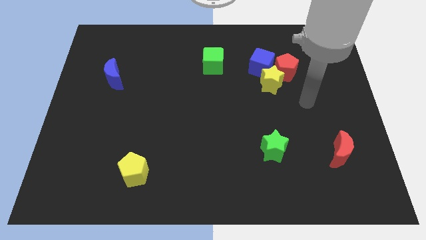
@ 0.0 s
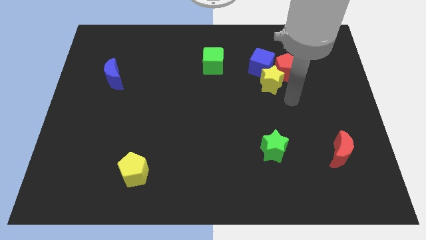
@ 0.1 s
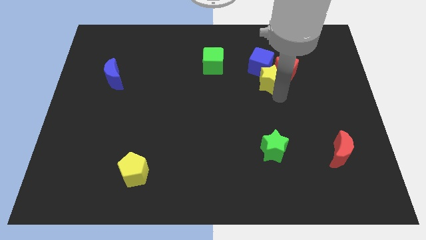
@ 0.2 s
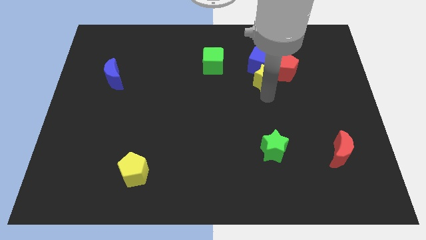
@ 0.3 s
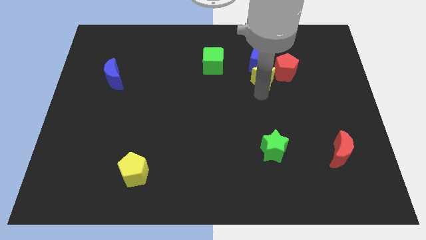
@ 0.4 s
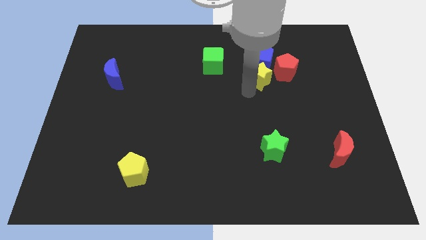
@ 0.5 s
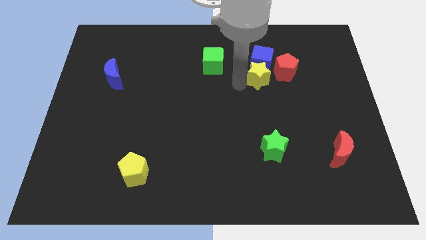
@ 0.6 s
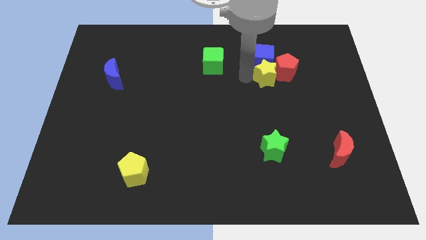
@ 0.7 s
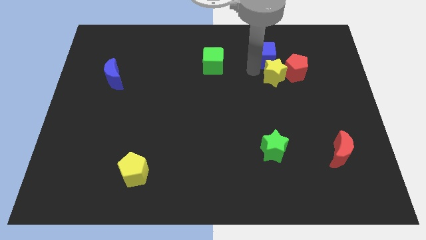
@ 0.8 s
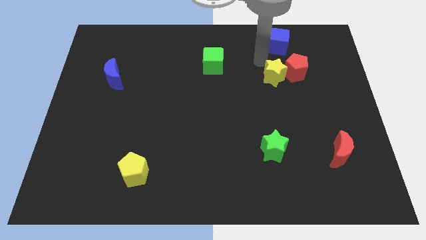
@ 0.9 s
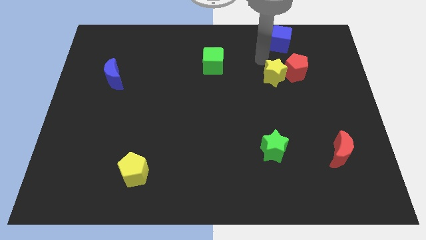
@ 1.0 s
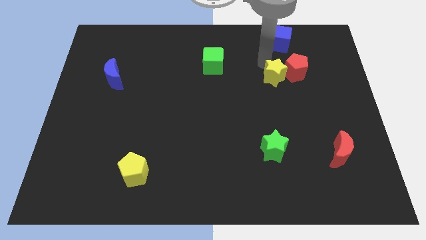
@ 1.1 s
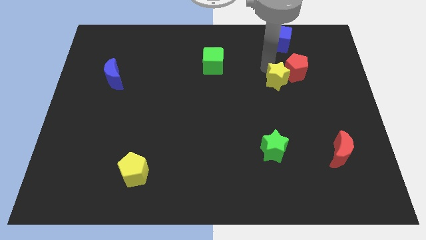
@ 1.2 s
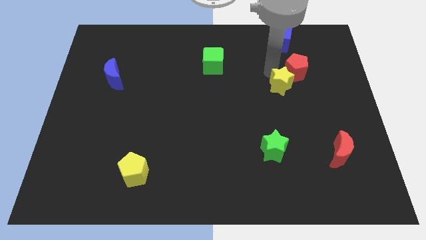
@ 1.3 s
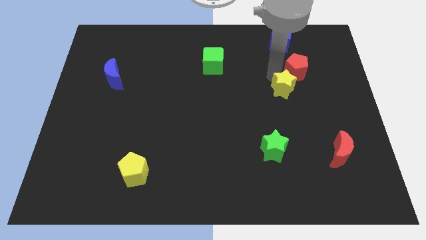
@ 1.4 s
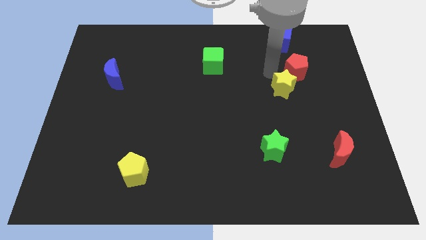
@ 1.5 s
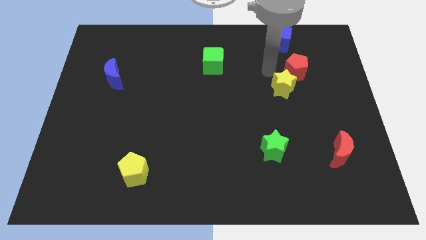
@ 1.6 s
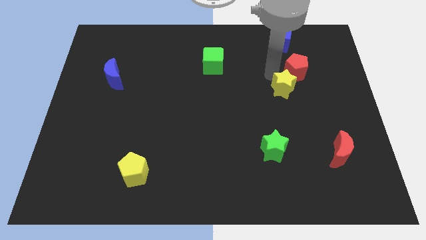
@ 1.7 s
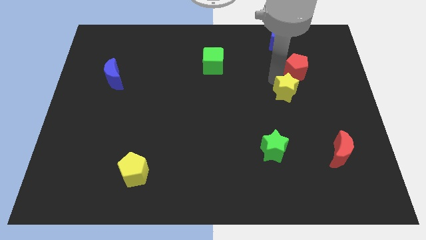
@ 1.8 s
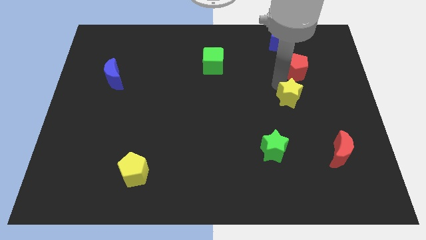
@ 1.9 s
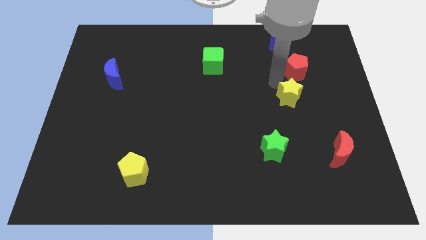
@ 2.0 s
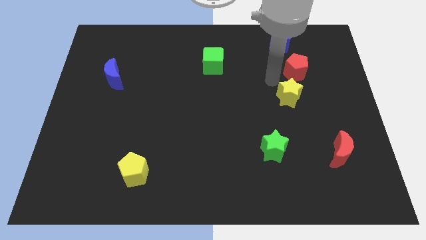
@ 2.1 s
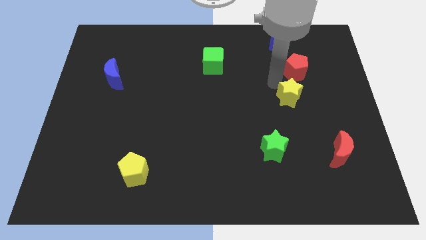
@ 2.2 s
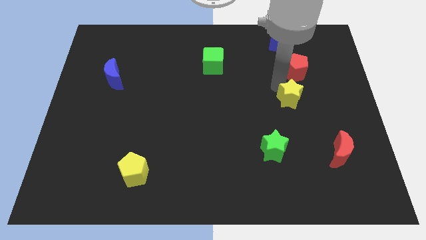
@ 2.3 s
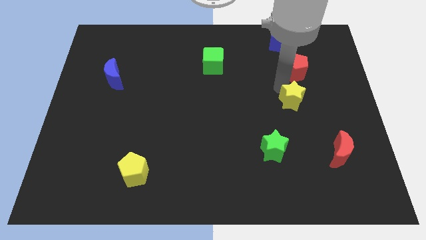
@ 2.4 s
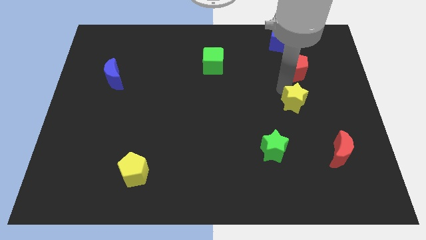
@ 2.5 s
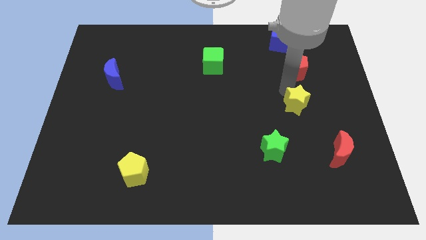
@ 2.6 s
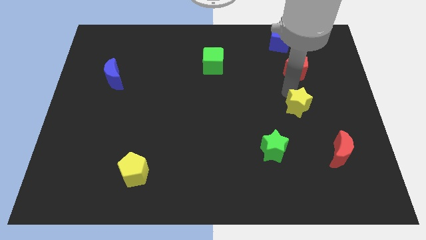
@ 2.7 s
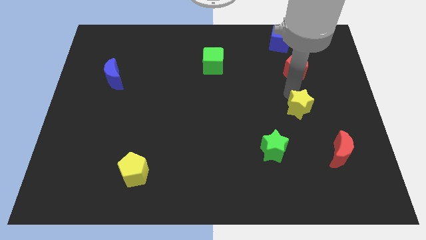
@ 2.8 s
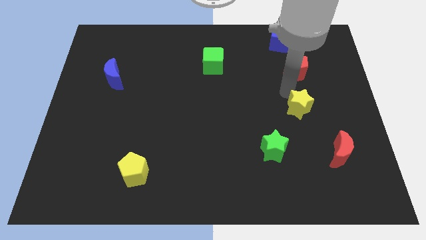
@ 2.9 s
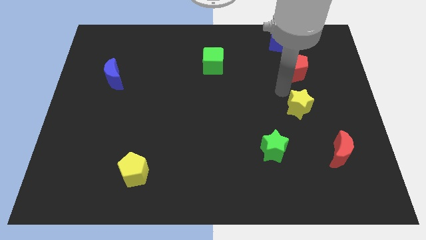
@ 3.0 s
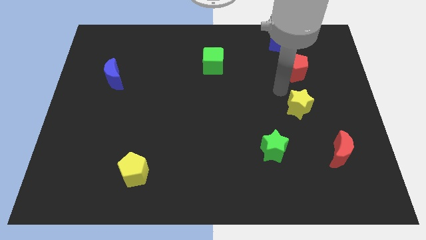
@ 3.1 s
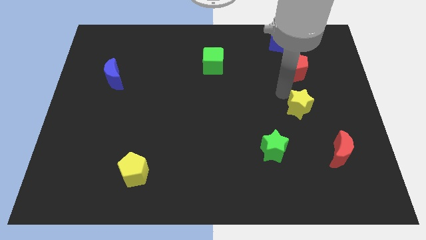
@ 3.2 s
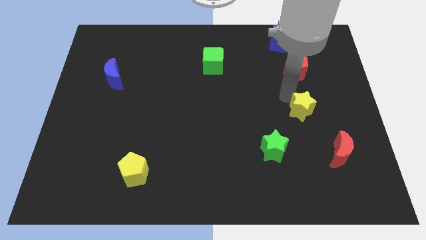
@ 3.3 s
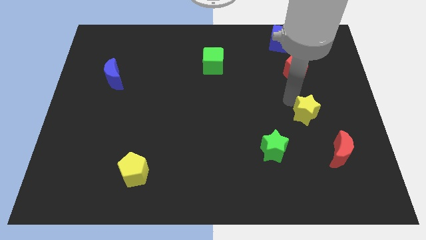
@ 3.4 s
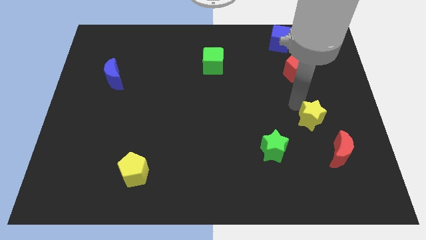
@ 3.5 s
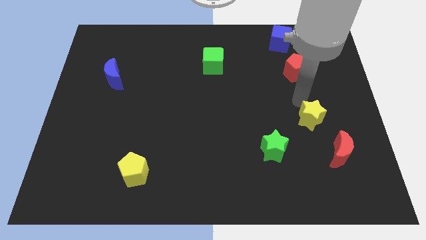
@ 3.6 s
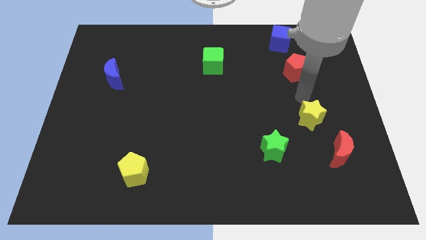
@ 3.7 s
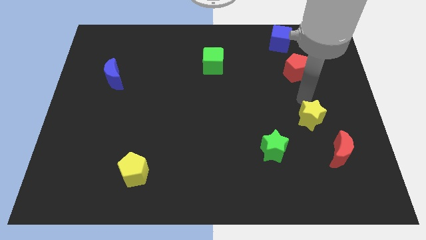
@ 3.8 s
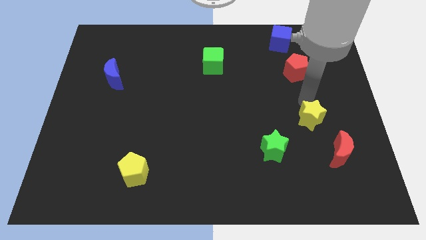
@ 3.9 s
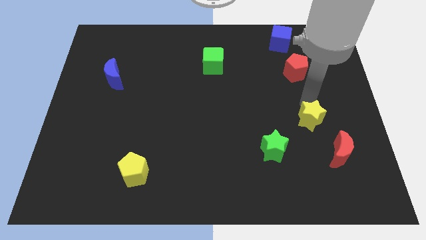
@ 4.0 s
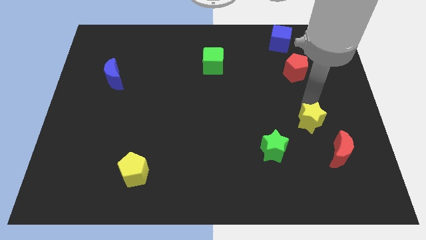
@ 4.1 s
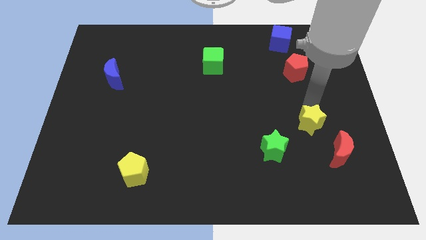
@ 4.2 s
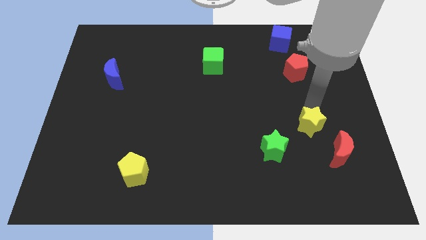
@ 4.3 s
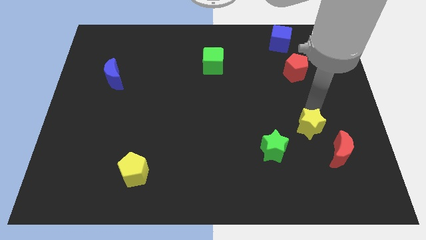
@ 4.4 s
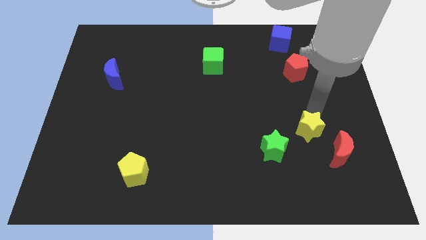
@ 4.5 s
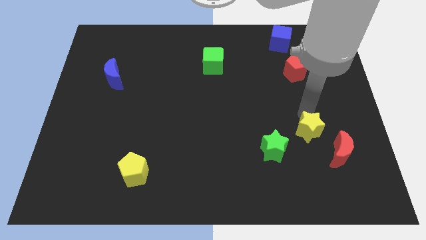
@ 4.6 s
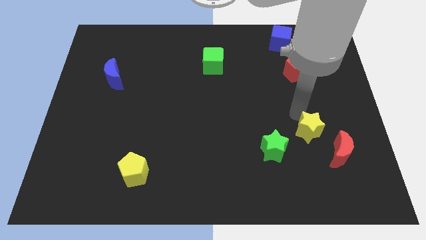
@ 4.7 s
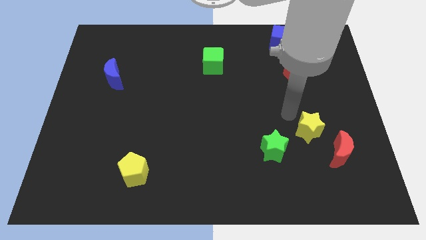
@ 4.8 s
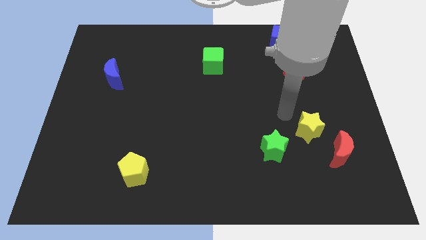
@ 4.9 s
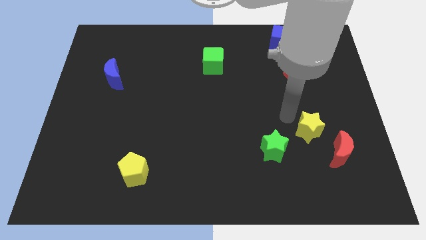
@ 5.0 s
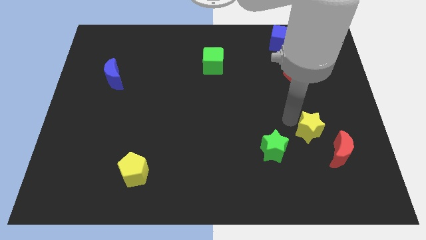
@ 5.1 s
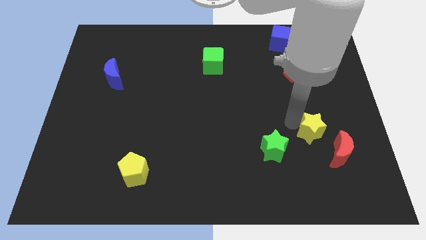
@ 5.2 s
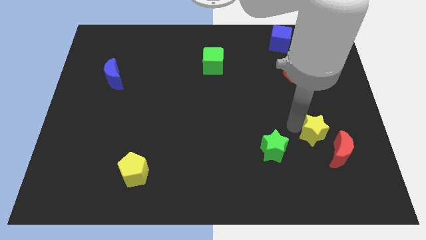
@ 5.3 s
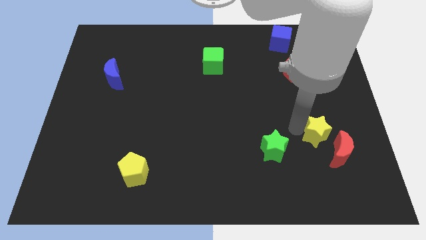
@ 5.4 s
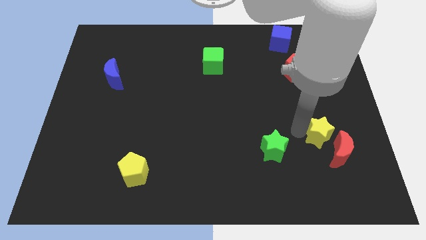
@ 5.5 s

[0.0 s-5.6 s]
slide the yellow star next to the red moon

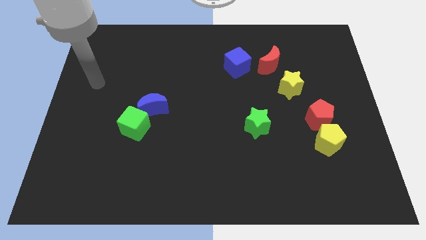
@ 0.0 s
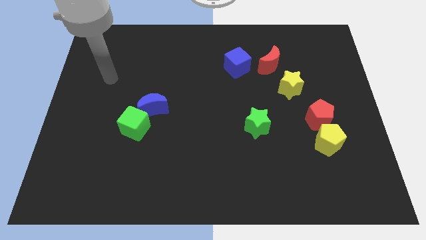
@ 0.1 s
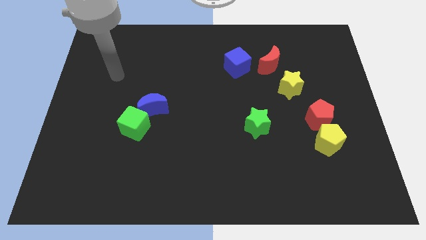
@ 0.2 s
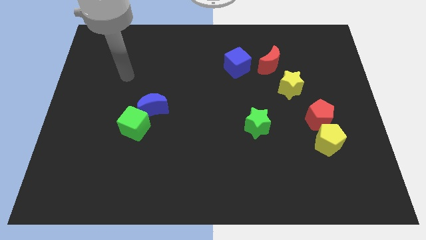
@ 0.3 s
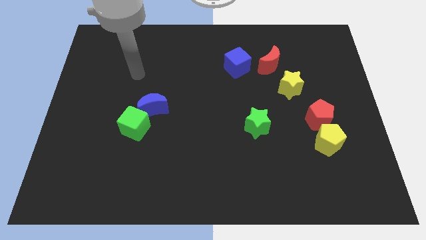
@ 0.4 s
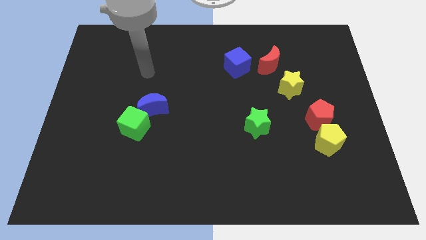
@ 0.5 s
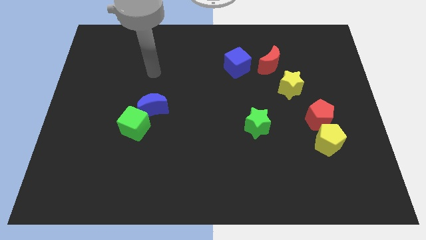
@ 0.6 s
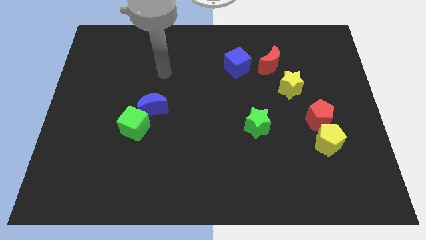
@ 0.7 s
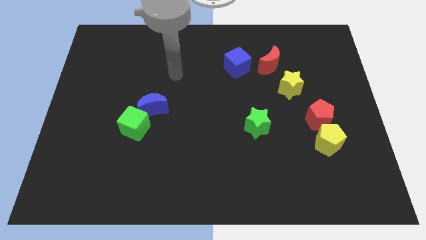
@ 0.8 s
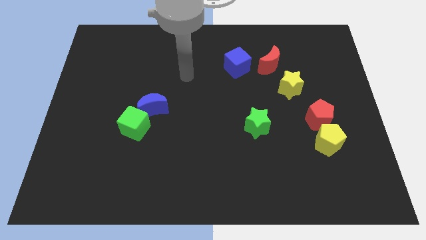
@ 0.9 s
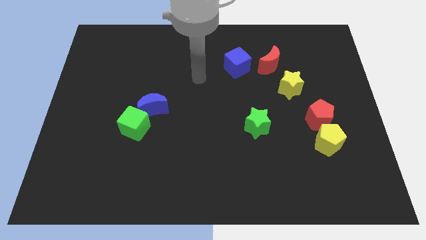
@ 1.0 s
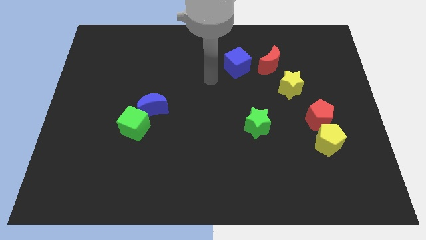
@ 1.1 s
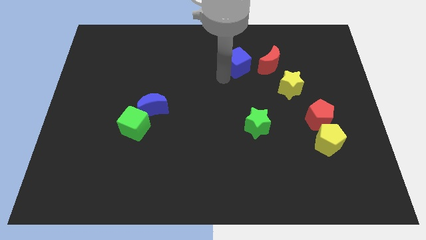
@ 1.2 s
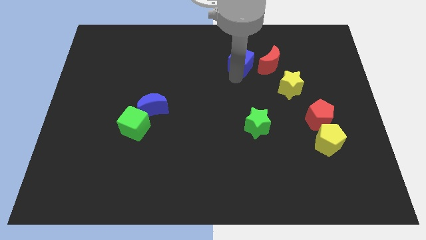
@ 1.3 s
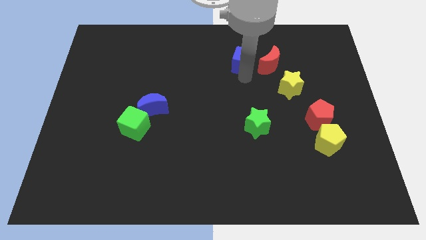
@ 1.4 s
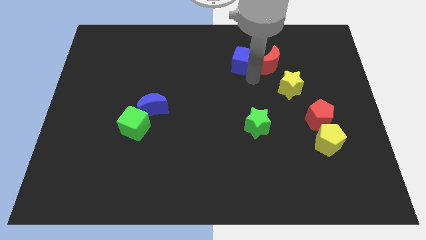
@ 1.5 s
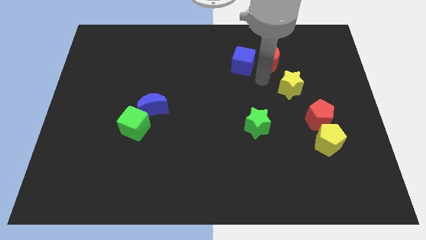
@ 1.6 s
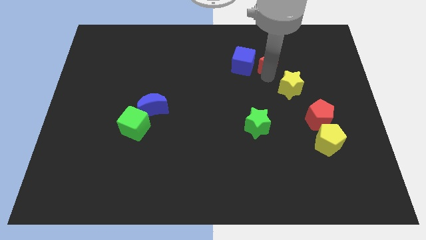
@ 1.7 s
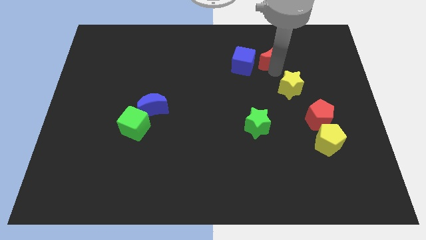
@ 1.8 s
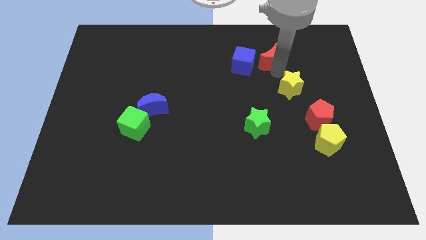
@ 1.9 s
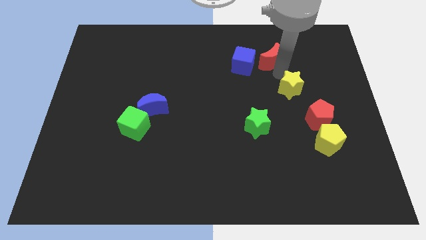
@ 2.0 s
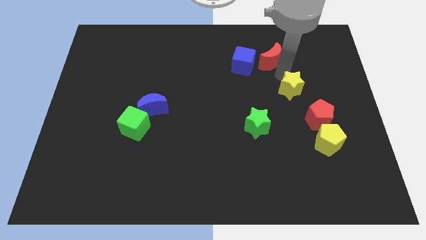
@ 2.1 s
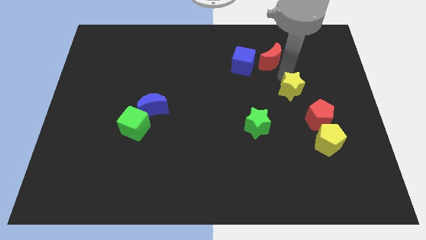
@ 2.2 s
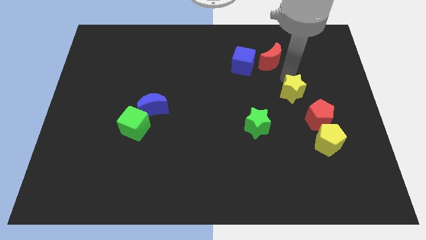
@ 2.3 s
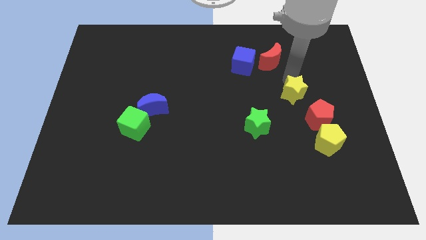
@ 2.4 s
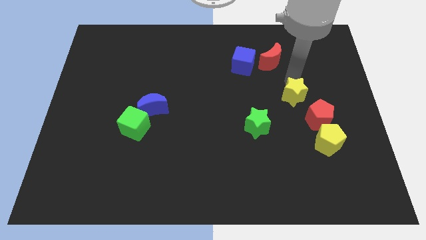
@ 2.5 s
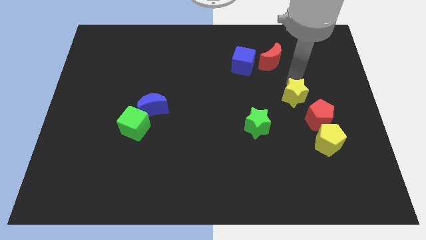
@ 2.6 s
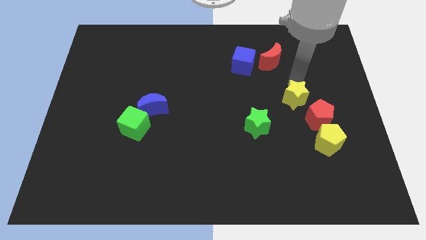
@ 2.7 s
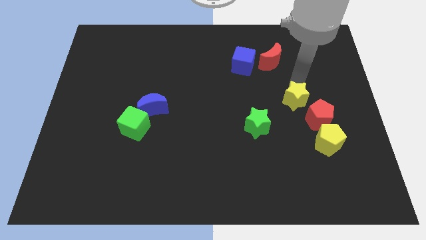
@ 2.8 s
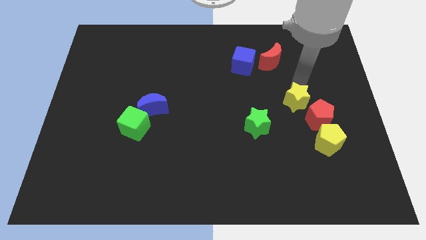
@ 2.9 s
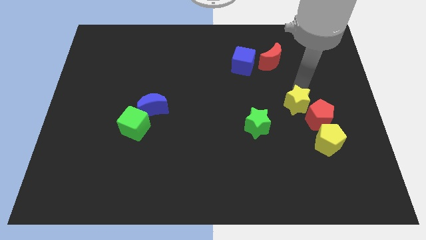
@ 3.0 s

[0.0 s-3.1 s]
slide the yellow star to the red pentagon
